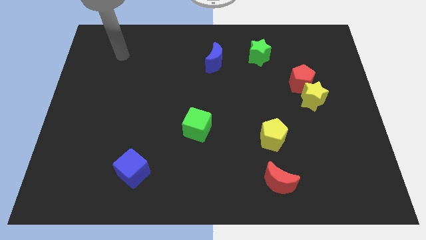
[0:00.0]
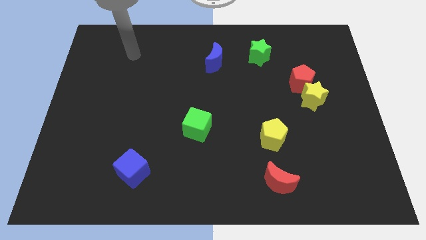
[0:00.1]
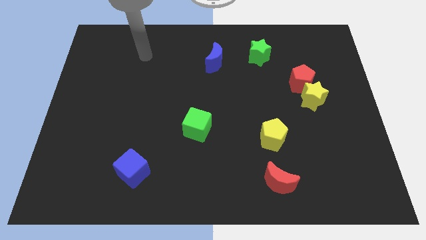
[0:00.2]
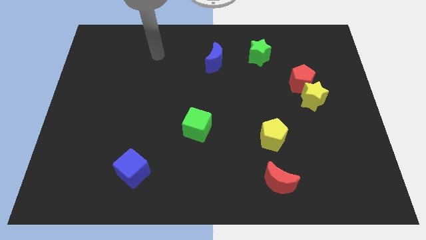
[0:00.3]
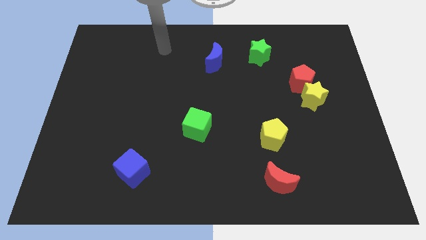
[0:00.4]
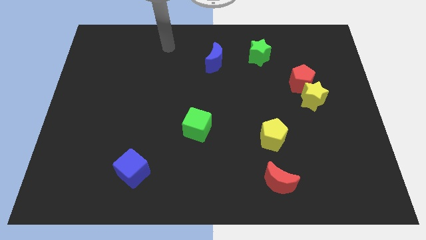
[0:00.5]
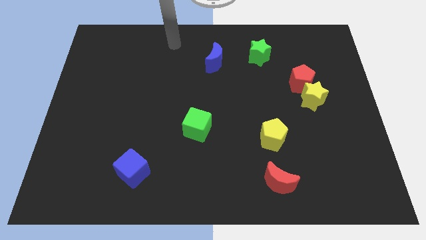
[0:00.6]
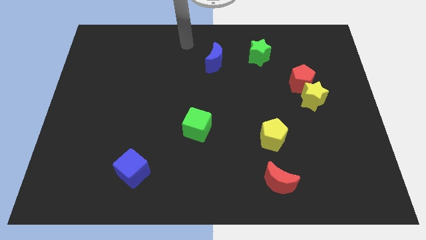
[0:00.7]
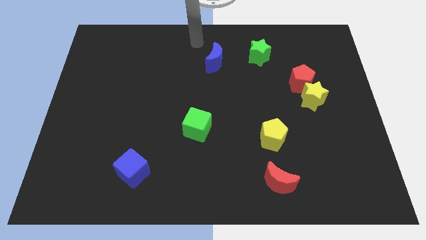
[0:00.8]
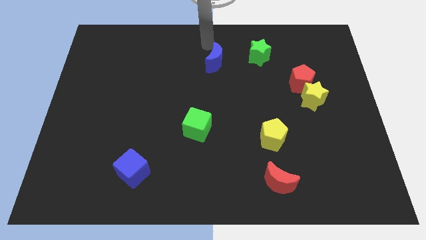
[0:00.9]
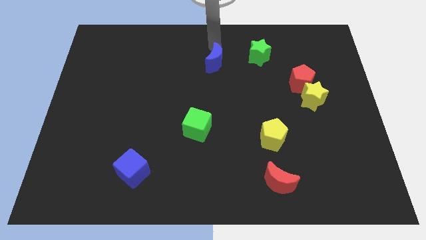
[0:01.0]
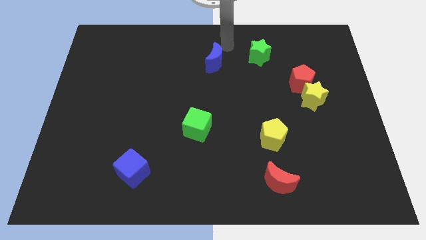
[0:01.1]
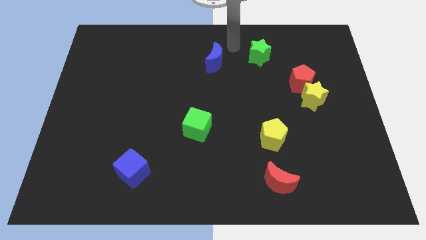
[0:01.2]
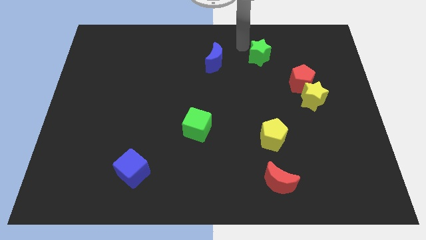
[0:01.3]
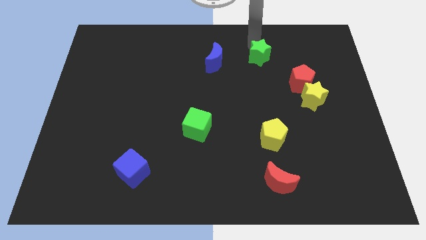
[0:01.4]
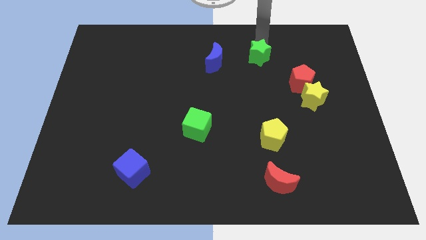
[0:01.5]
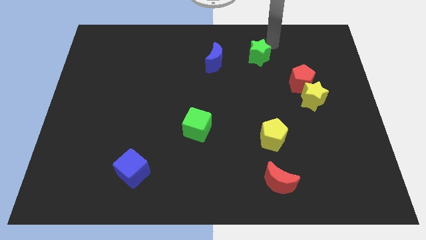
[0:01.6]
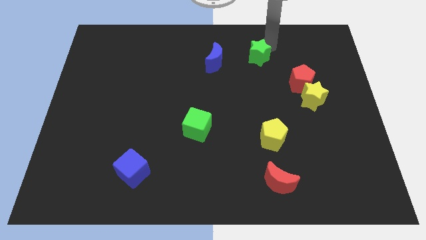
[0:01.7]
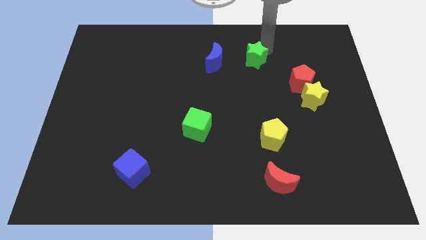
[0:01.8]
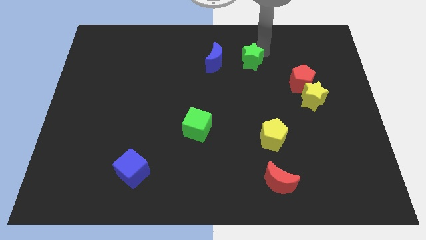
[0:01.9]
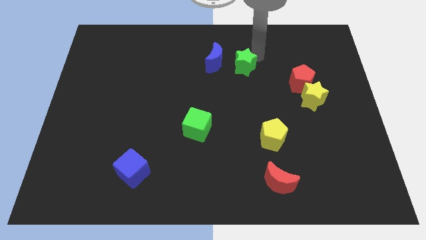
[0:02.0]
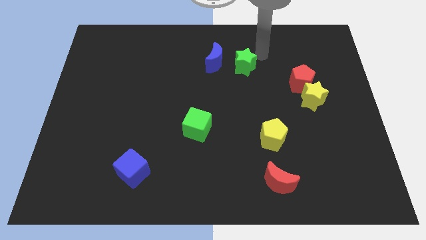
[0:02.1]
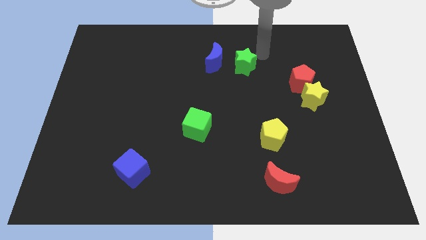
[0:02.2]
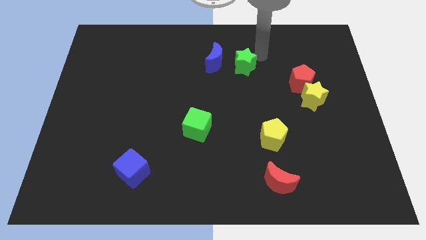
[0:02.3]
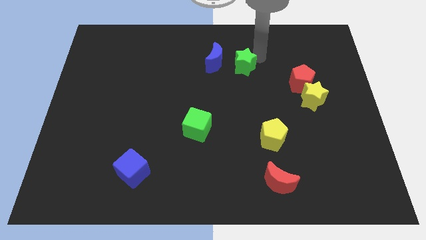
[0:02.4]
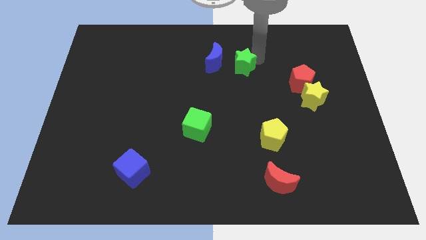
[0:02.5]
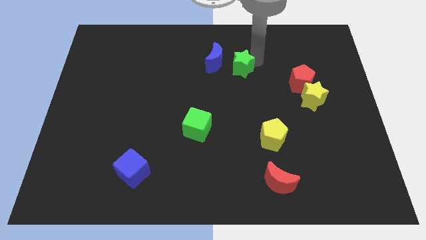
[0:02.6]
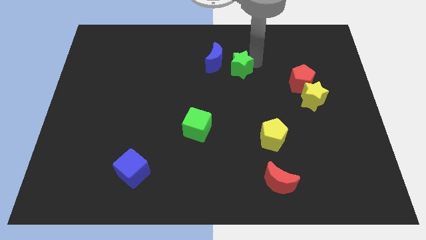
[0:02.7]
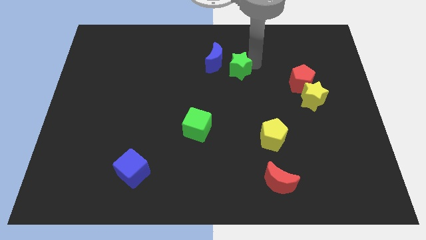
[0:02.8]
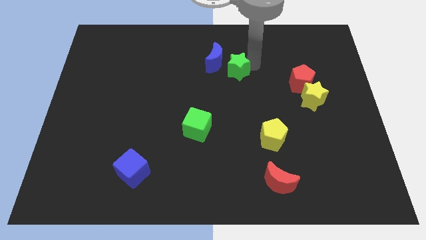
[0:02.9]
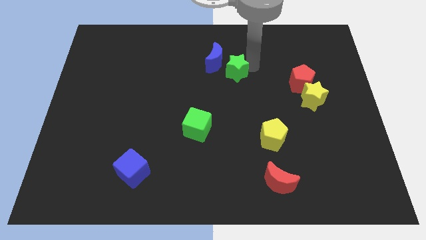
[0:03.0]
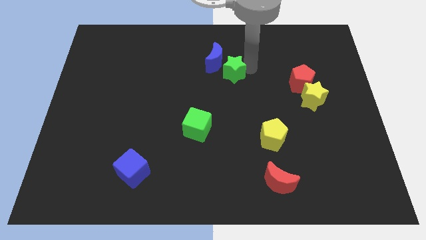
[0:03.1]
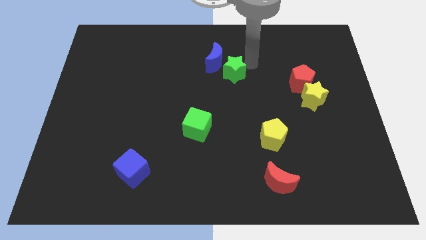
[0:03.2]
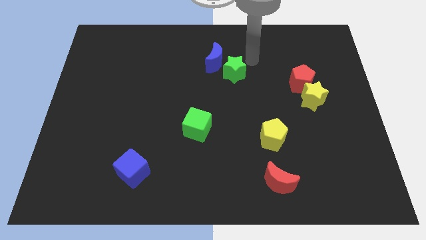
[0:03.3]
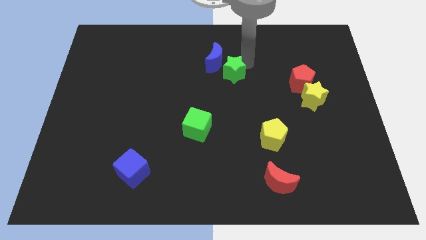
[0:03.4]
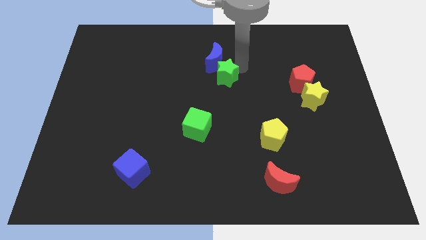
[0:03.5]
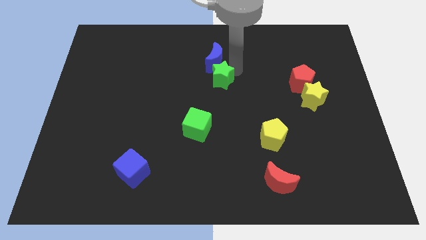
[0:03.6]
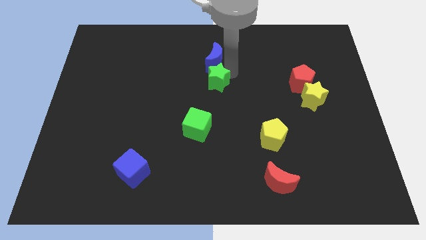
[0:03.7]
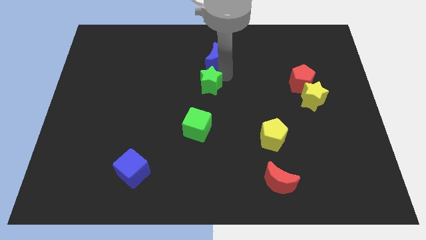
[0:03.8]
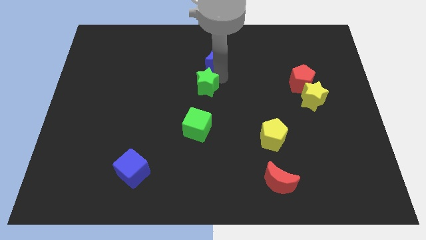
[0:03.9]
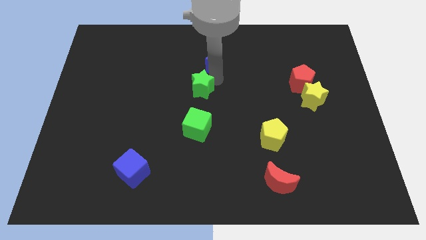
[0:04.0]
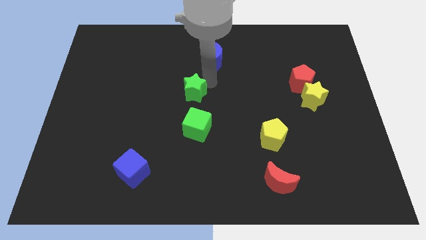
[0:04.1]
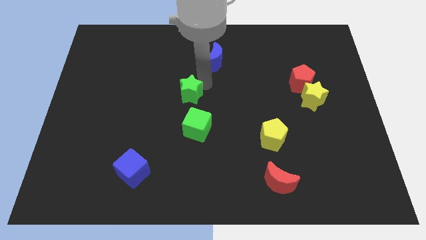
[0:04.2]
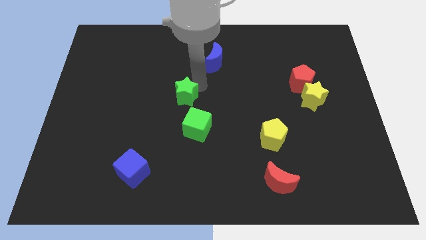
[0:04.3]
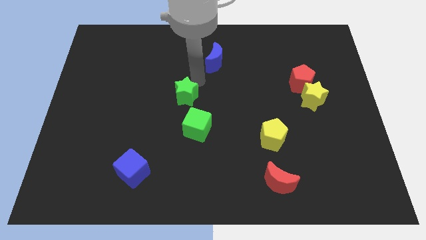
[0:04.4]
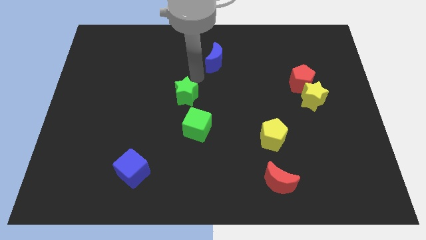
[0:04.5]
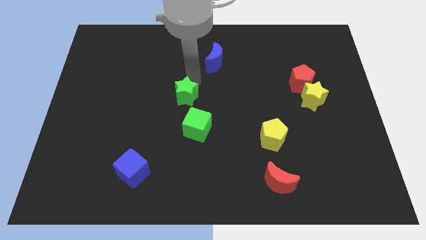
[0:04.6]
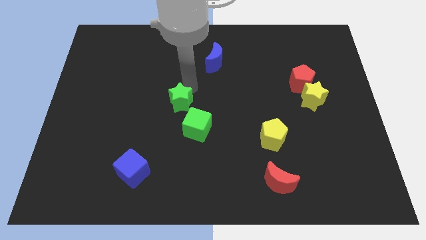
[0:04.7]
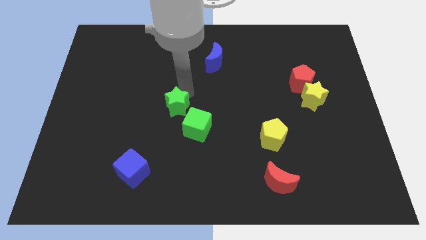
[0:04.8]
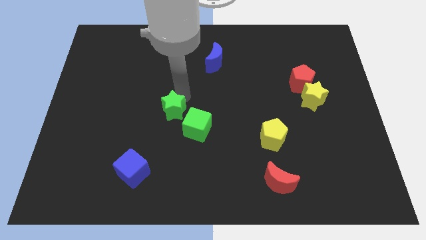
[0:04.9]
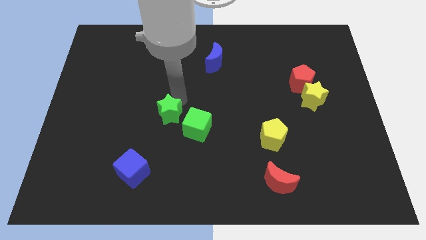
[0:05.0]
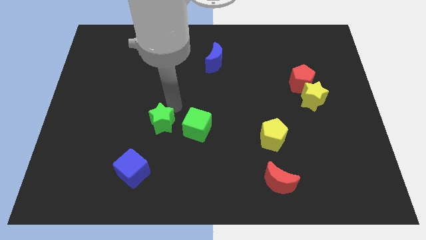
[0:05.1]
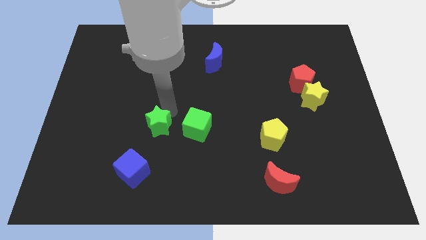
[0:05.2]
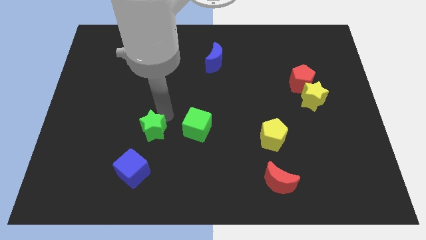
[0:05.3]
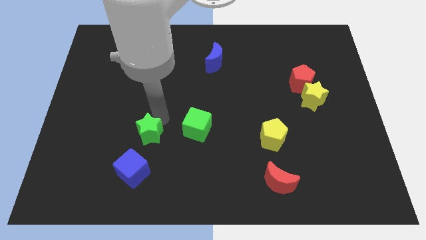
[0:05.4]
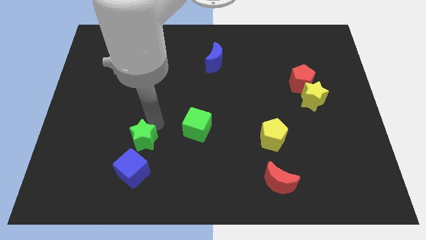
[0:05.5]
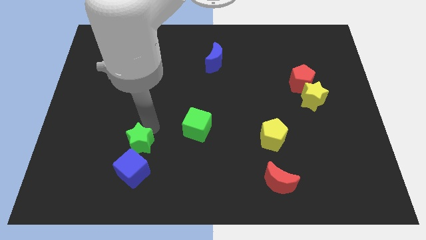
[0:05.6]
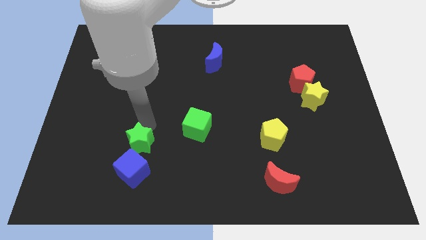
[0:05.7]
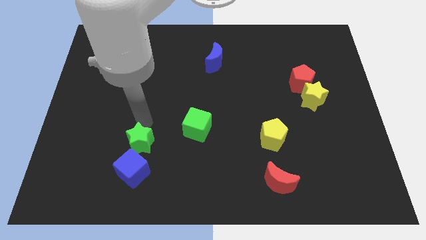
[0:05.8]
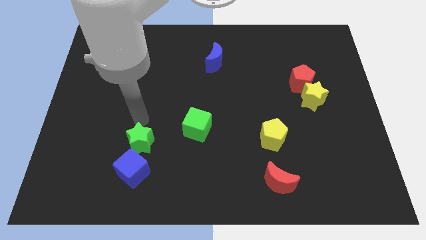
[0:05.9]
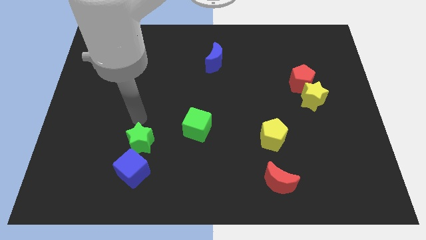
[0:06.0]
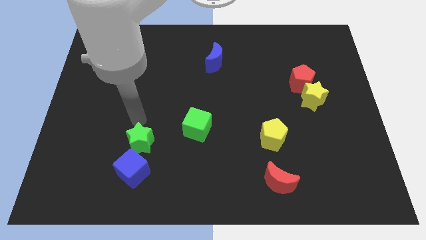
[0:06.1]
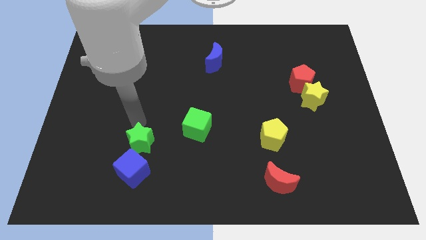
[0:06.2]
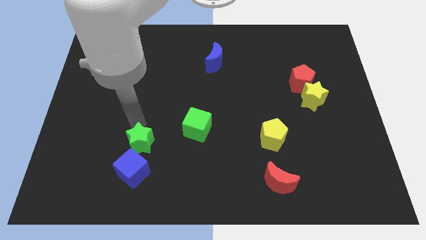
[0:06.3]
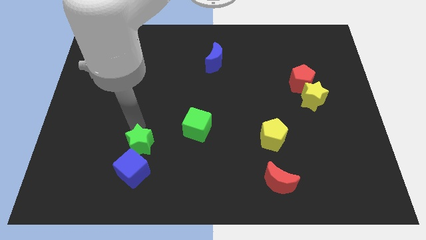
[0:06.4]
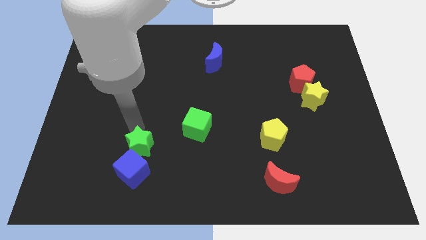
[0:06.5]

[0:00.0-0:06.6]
slide the green star to the blue cube
